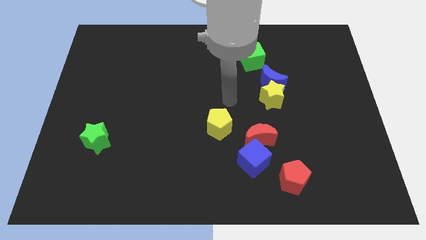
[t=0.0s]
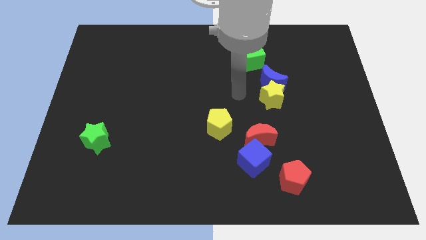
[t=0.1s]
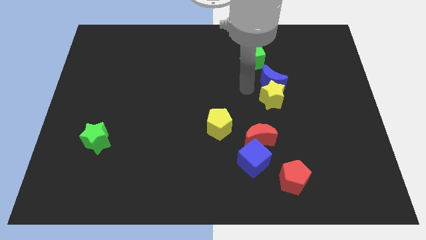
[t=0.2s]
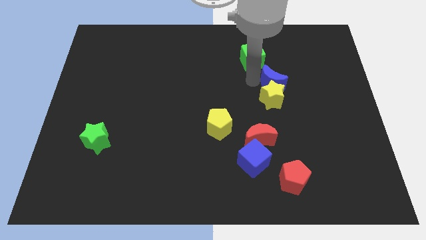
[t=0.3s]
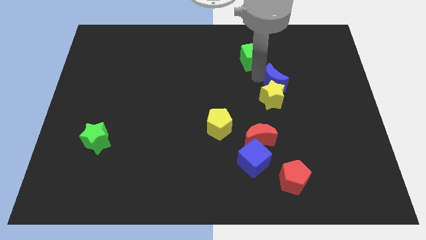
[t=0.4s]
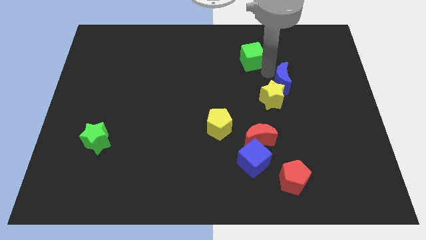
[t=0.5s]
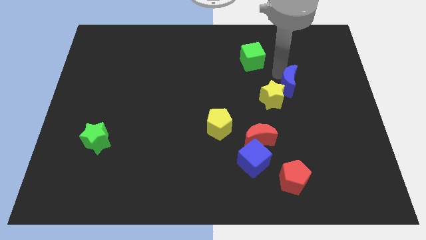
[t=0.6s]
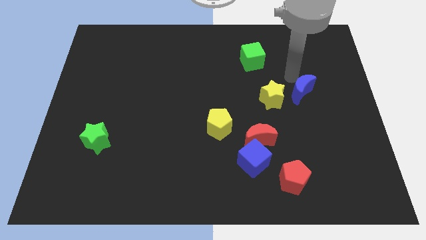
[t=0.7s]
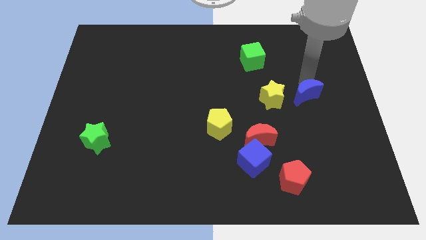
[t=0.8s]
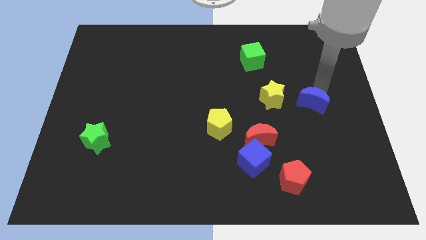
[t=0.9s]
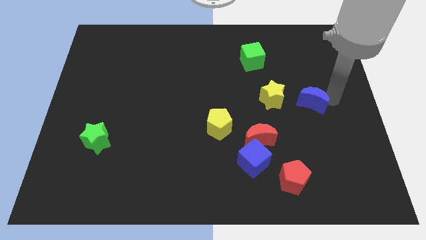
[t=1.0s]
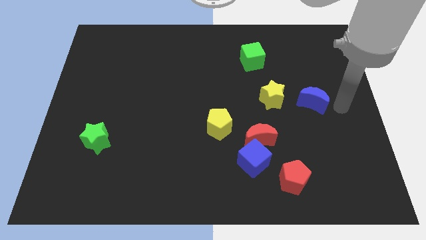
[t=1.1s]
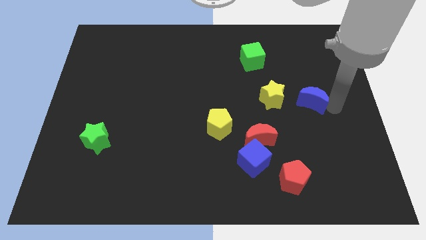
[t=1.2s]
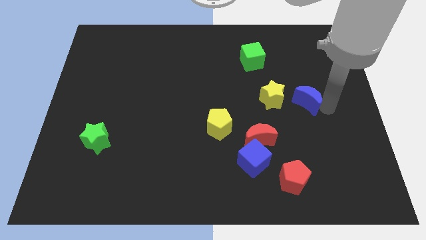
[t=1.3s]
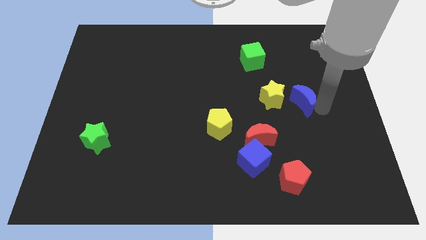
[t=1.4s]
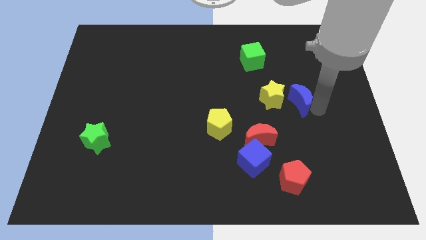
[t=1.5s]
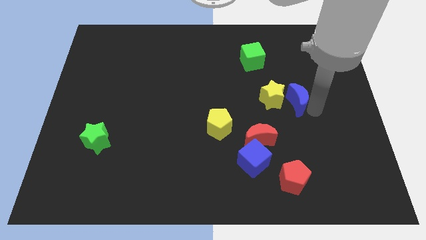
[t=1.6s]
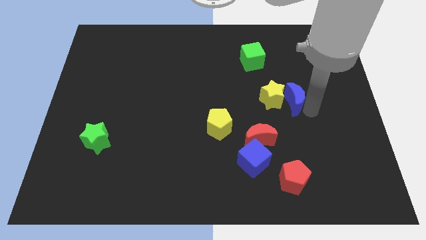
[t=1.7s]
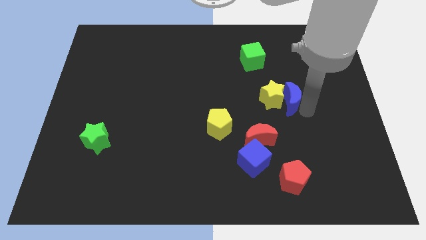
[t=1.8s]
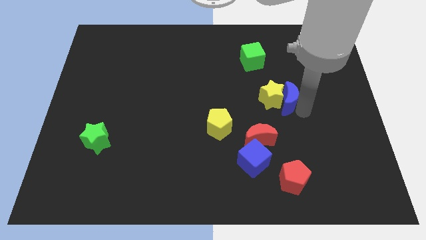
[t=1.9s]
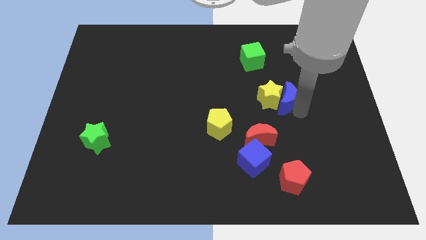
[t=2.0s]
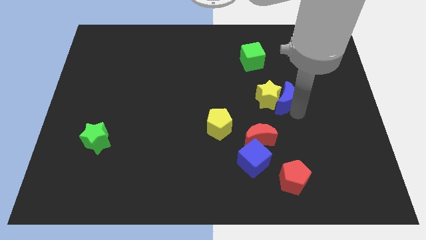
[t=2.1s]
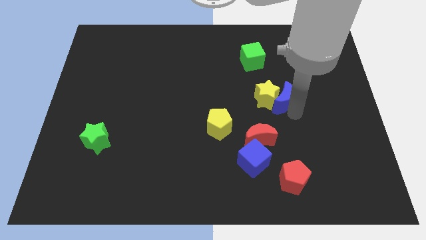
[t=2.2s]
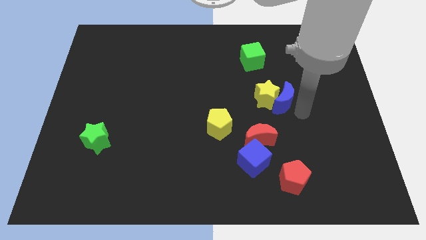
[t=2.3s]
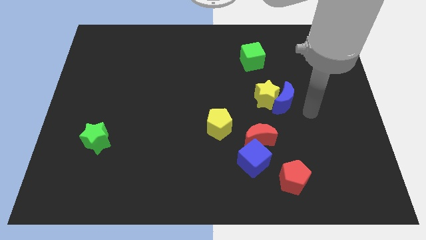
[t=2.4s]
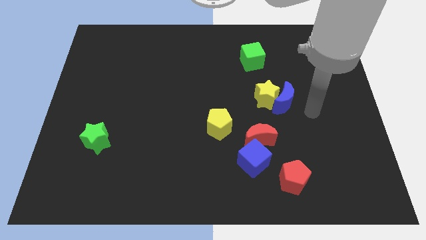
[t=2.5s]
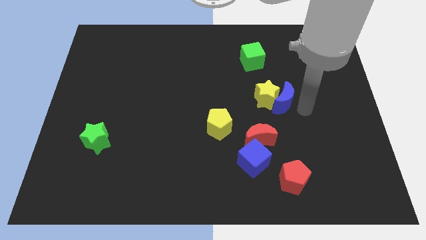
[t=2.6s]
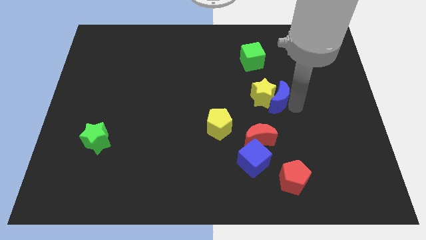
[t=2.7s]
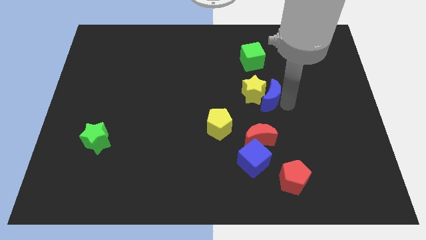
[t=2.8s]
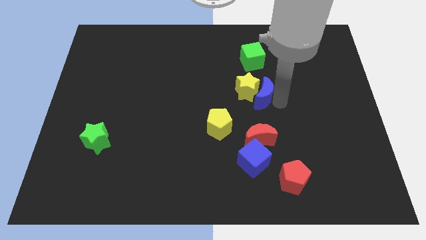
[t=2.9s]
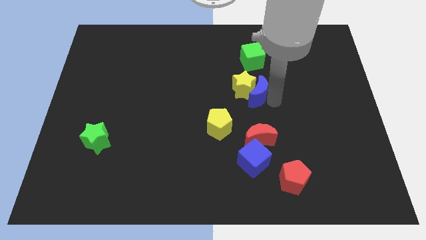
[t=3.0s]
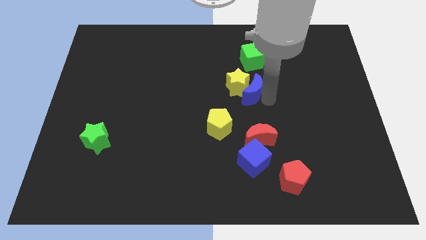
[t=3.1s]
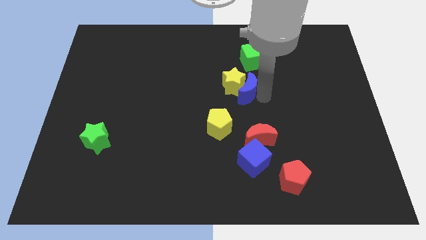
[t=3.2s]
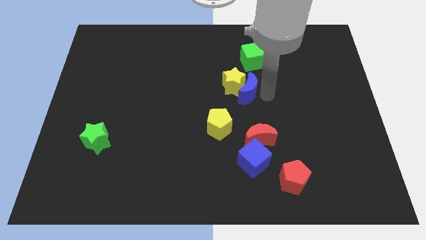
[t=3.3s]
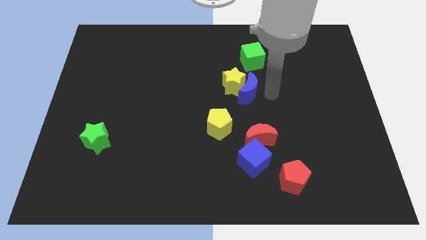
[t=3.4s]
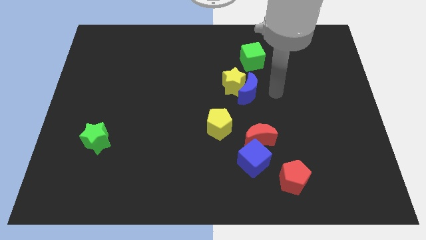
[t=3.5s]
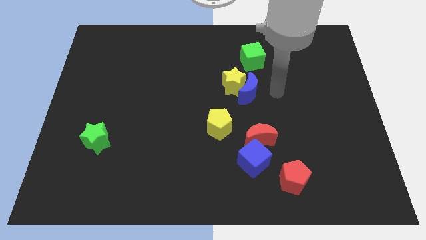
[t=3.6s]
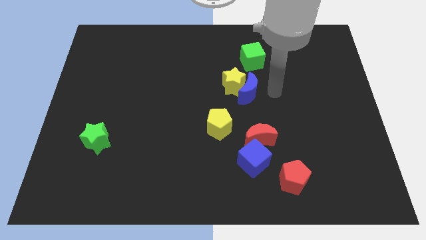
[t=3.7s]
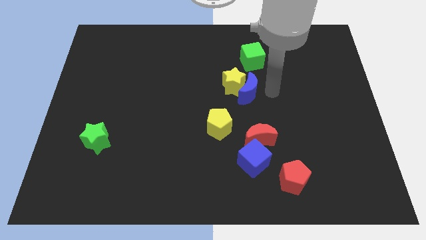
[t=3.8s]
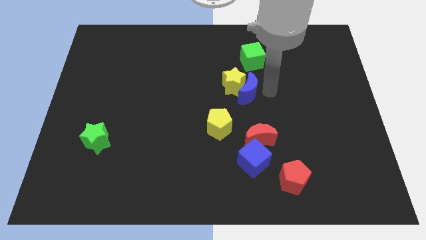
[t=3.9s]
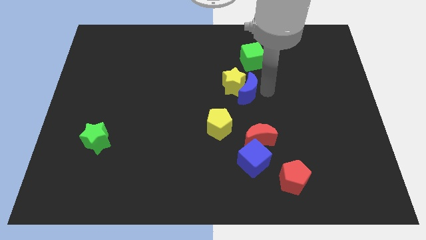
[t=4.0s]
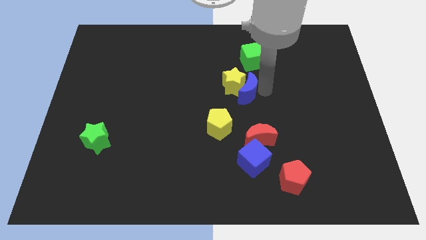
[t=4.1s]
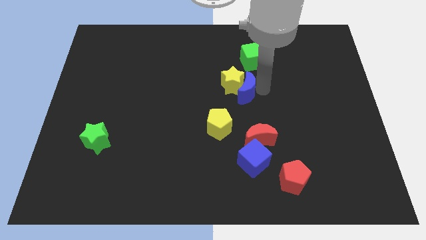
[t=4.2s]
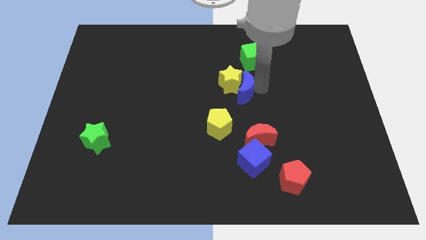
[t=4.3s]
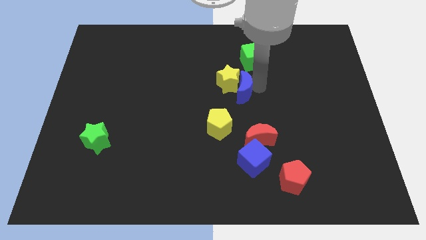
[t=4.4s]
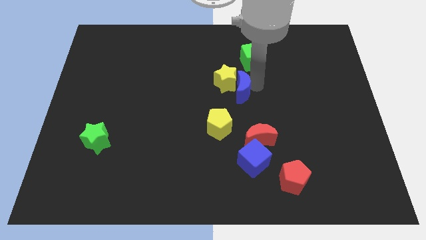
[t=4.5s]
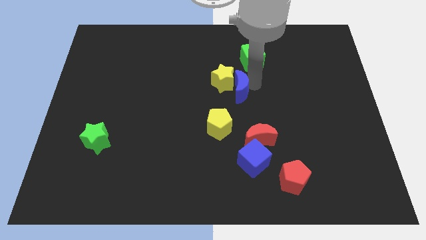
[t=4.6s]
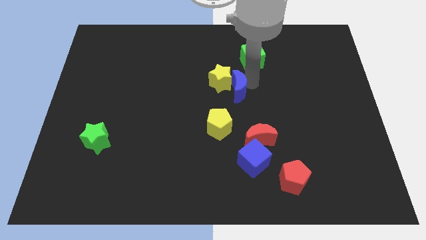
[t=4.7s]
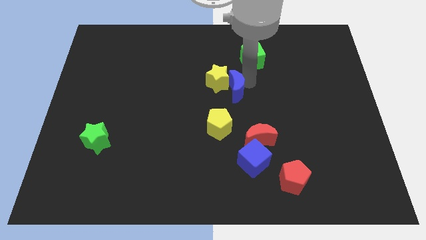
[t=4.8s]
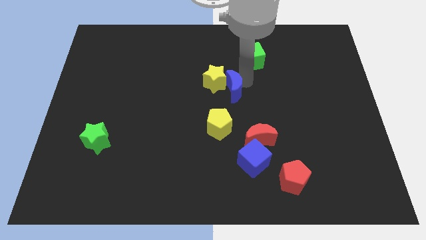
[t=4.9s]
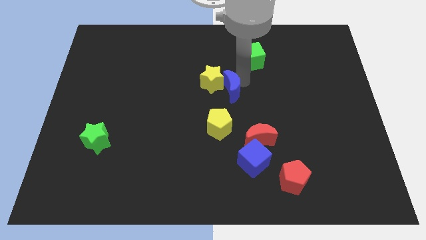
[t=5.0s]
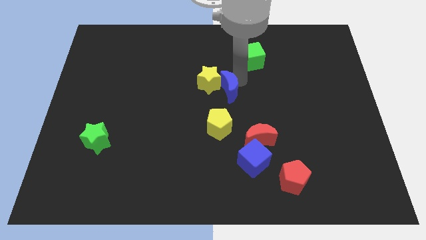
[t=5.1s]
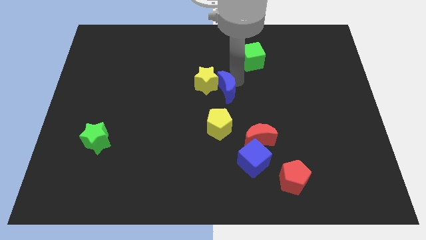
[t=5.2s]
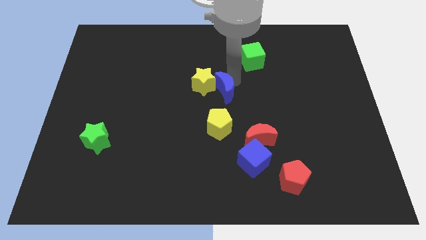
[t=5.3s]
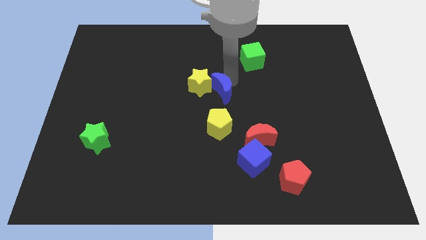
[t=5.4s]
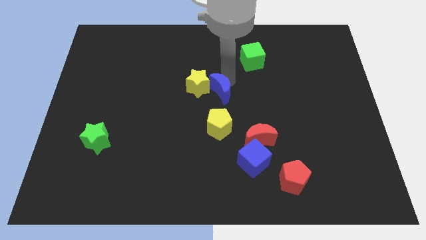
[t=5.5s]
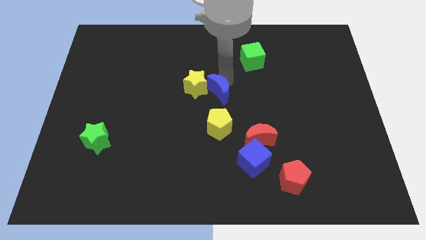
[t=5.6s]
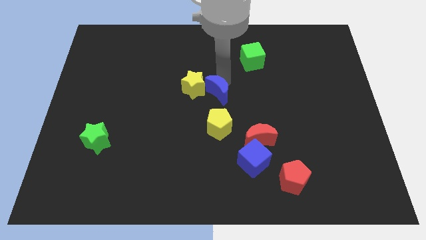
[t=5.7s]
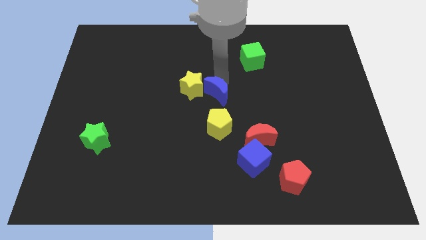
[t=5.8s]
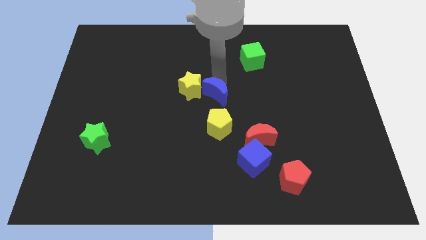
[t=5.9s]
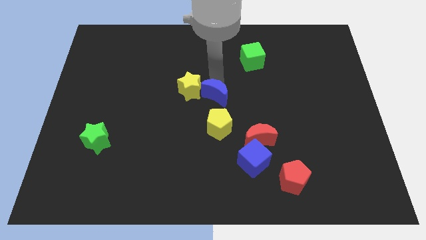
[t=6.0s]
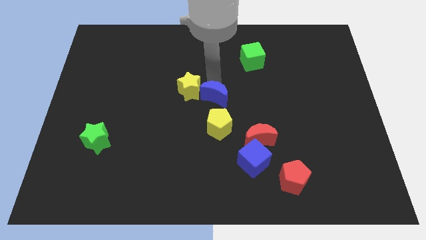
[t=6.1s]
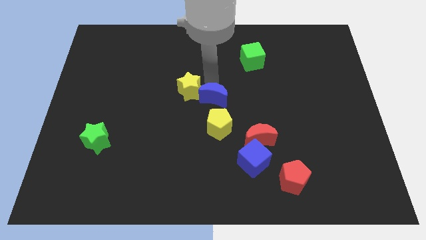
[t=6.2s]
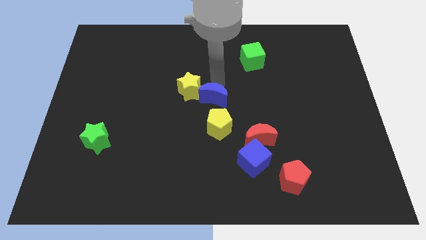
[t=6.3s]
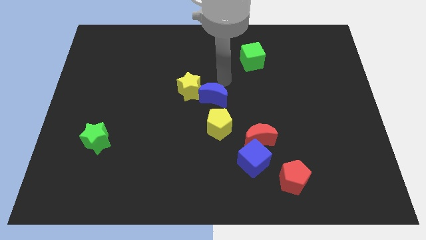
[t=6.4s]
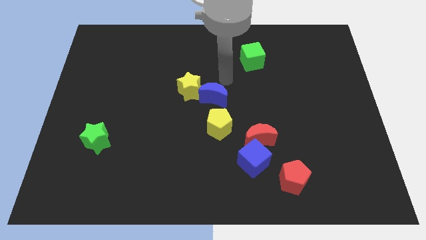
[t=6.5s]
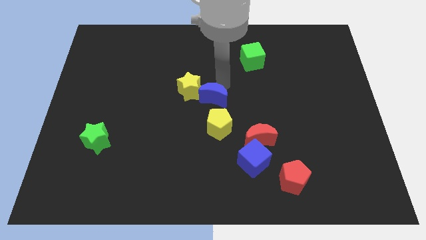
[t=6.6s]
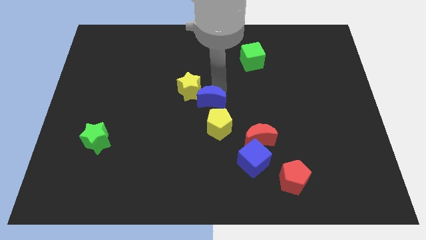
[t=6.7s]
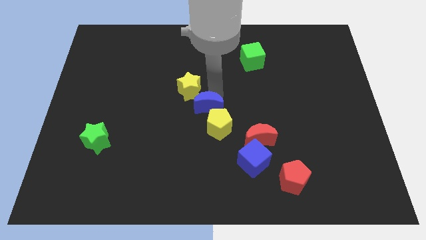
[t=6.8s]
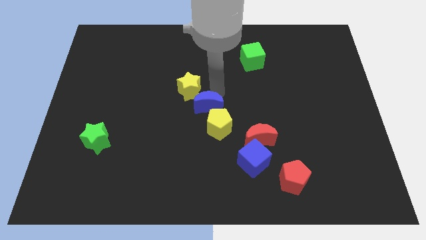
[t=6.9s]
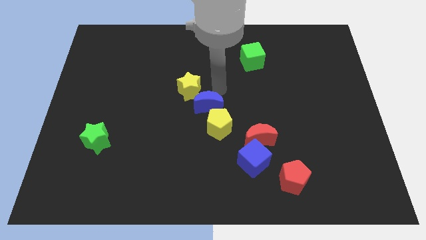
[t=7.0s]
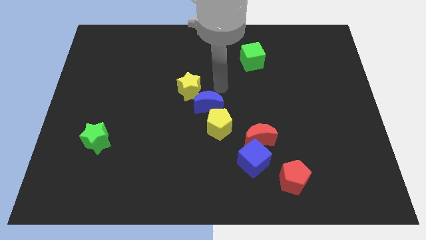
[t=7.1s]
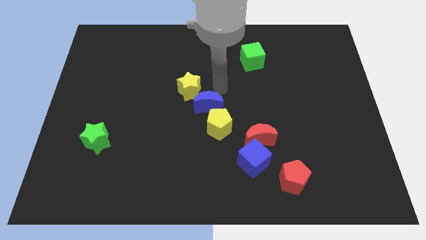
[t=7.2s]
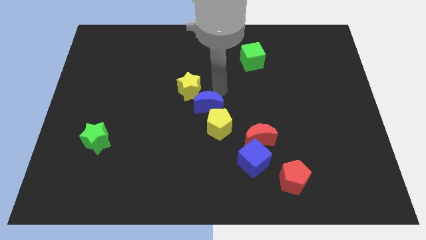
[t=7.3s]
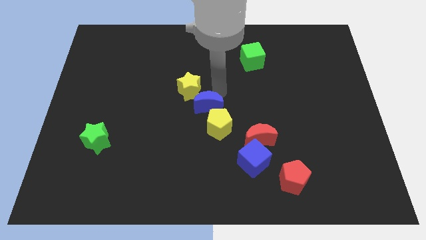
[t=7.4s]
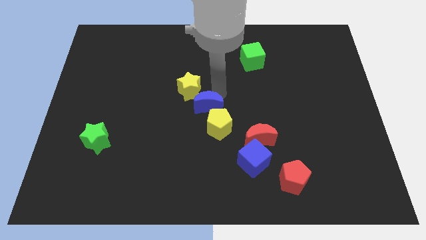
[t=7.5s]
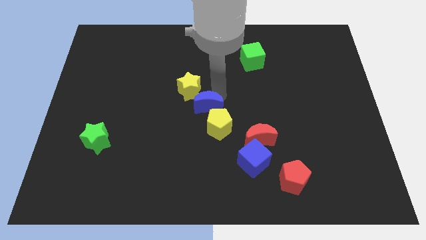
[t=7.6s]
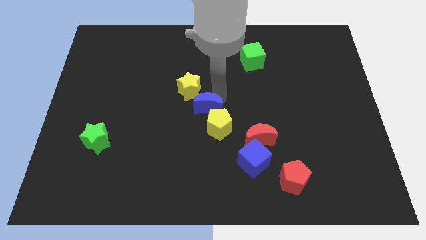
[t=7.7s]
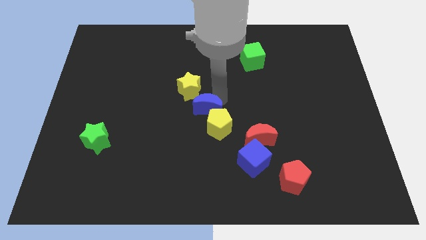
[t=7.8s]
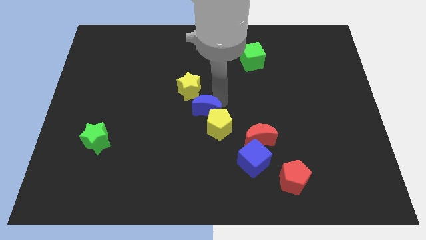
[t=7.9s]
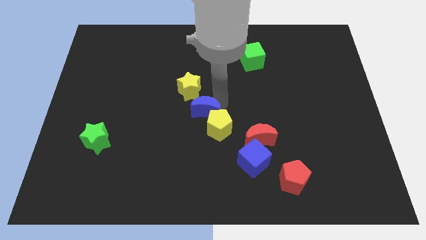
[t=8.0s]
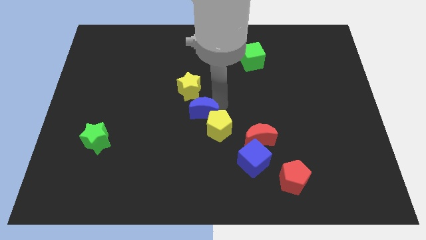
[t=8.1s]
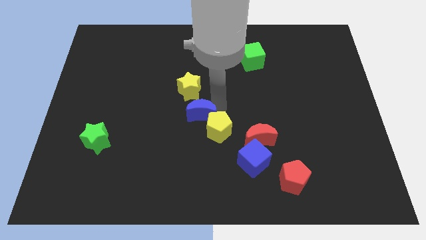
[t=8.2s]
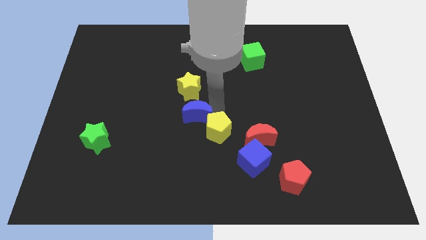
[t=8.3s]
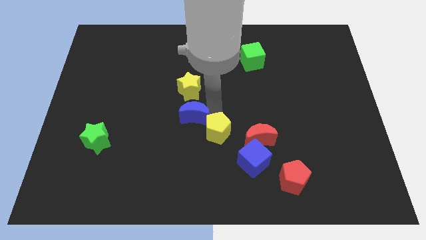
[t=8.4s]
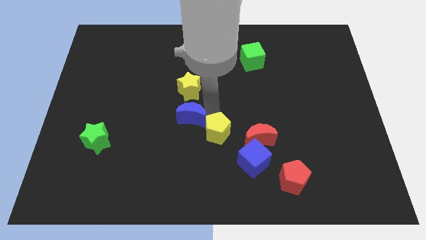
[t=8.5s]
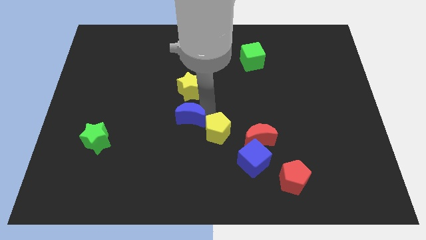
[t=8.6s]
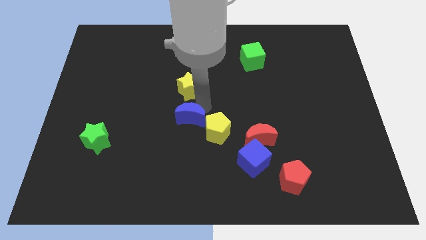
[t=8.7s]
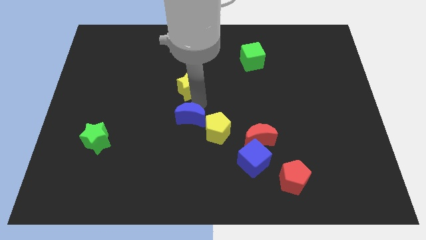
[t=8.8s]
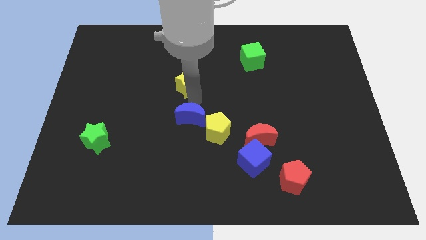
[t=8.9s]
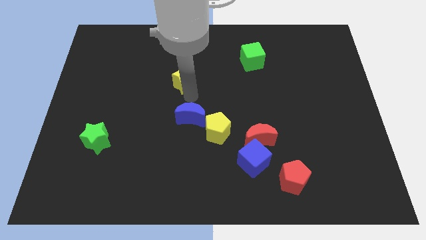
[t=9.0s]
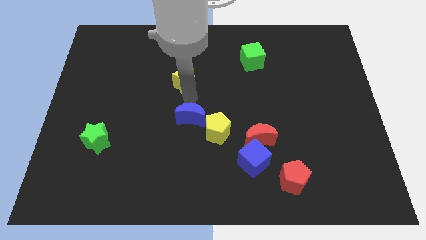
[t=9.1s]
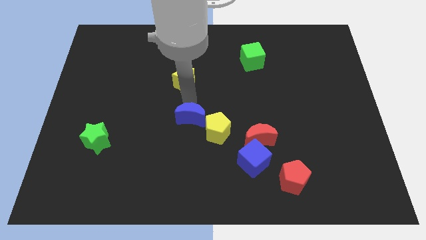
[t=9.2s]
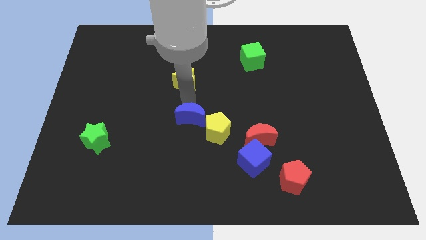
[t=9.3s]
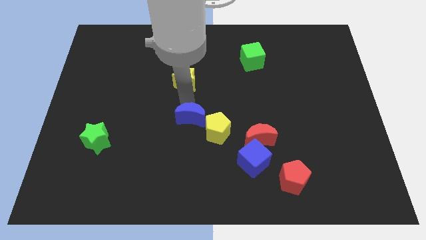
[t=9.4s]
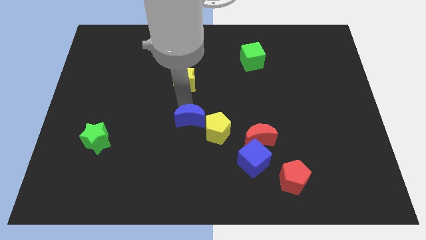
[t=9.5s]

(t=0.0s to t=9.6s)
move the blue moon down and then to the left
